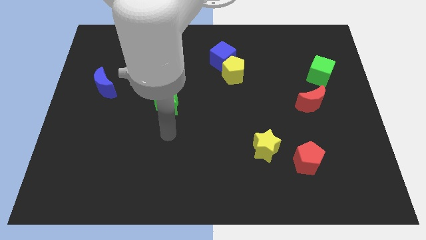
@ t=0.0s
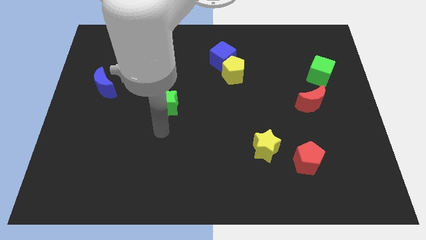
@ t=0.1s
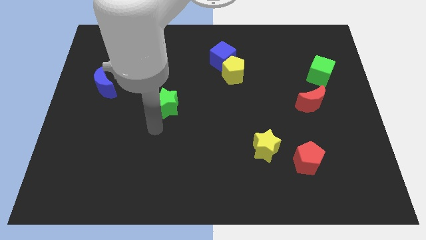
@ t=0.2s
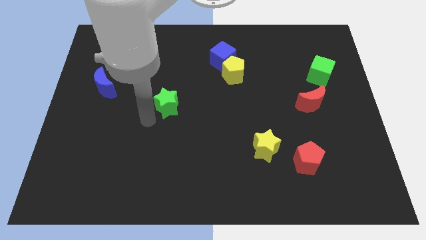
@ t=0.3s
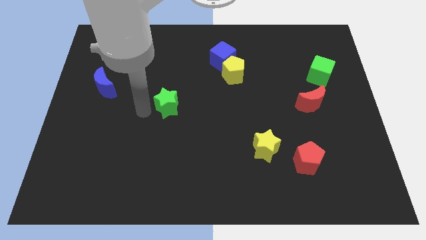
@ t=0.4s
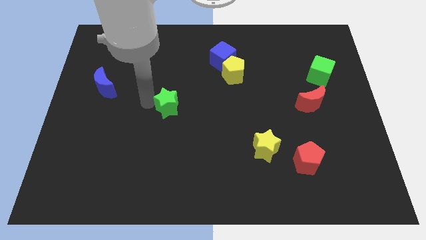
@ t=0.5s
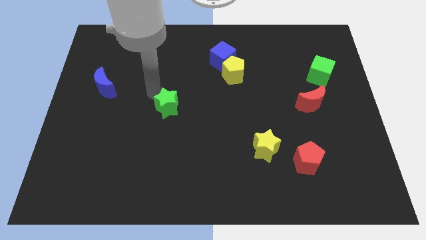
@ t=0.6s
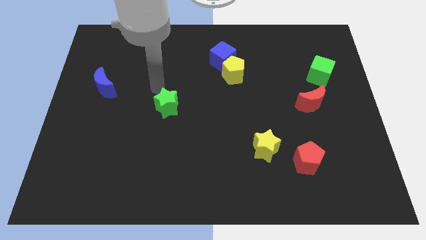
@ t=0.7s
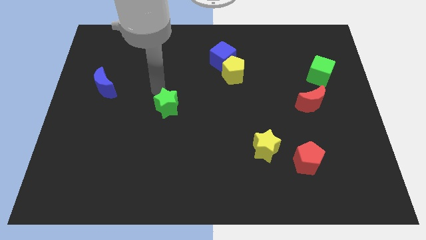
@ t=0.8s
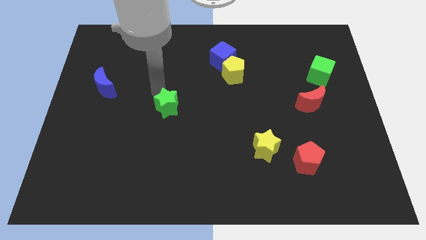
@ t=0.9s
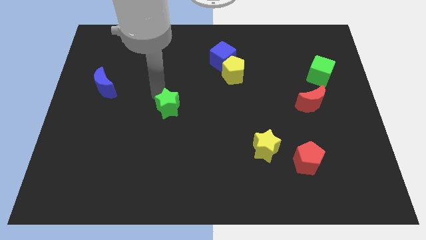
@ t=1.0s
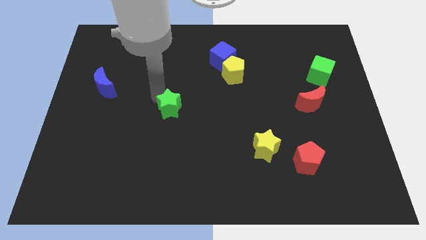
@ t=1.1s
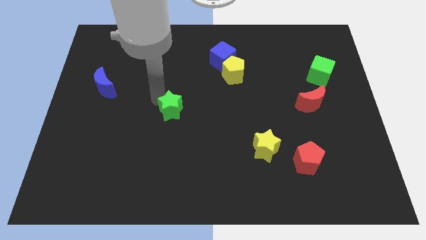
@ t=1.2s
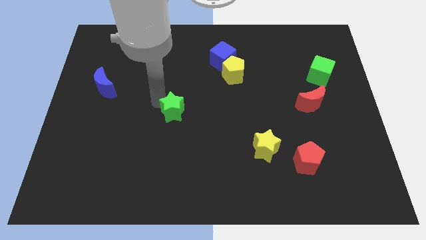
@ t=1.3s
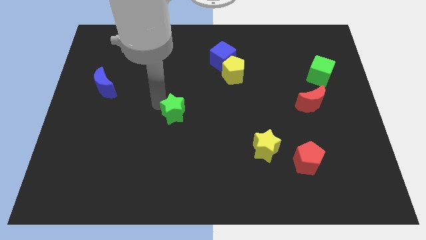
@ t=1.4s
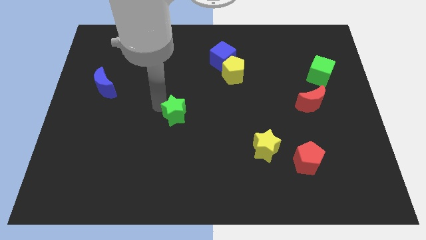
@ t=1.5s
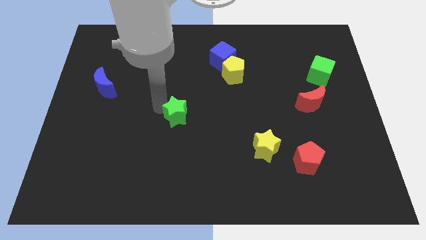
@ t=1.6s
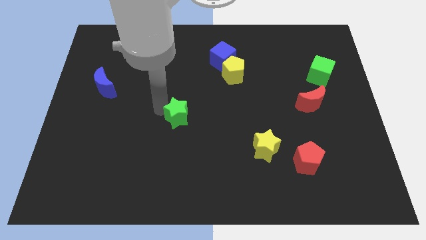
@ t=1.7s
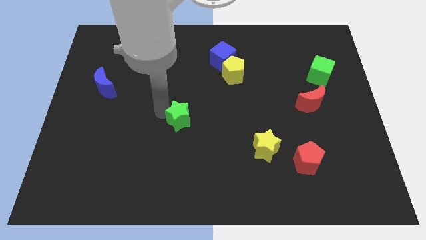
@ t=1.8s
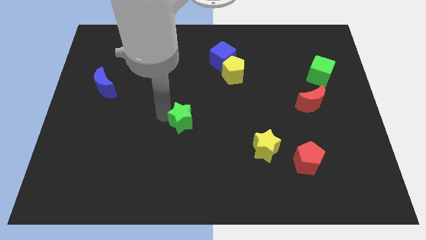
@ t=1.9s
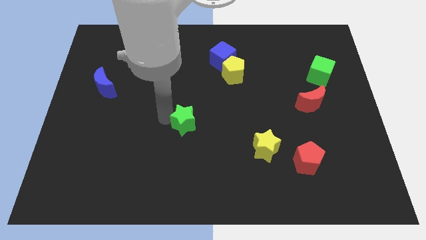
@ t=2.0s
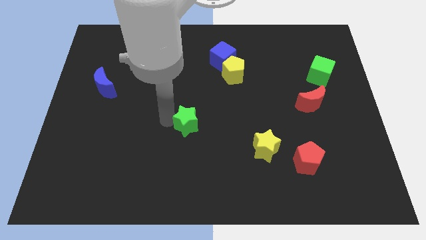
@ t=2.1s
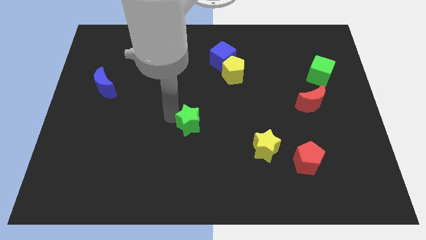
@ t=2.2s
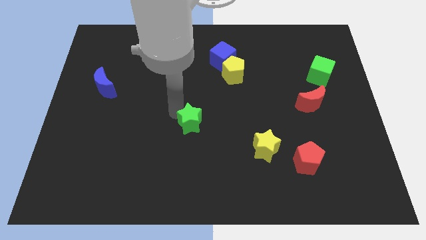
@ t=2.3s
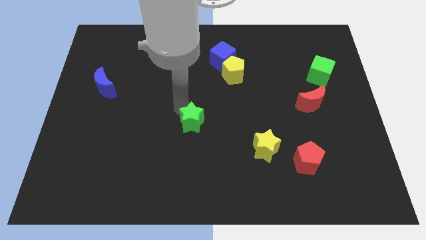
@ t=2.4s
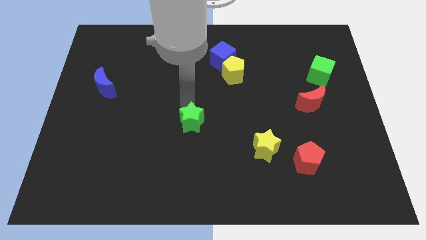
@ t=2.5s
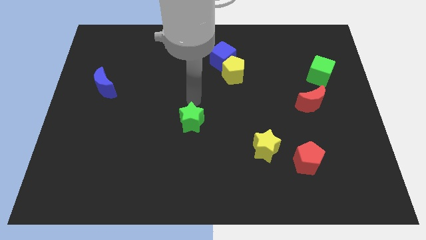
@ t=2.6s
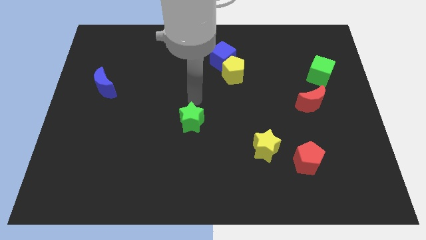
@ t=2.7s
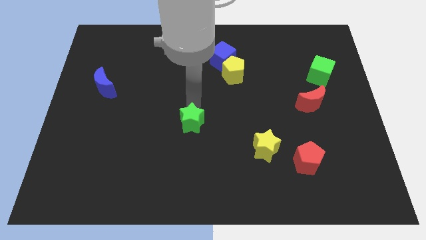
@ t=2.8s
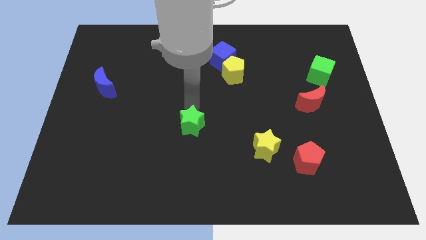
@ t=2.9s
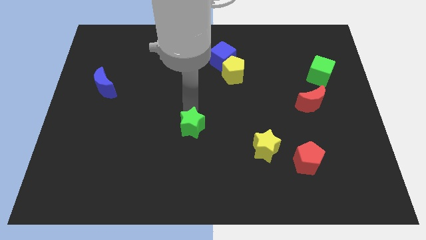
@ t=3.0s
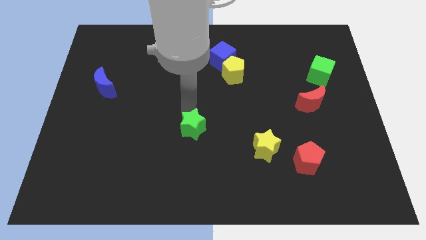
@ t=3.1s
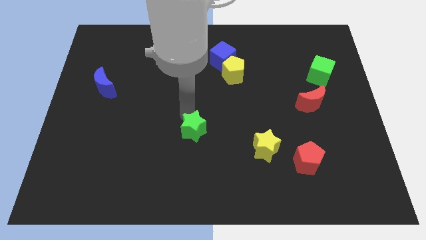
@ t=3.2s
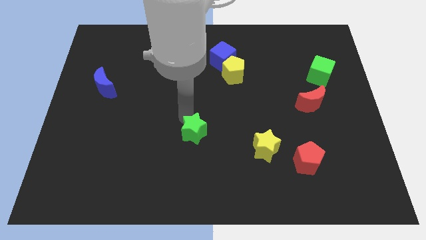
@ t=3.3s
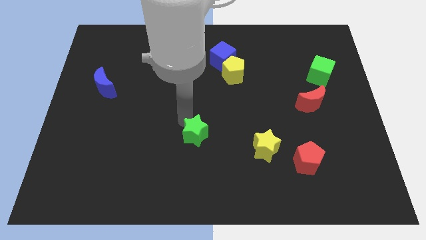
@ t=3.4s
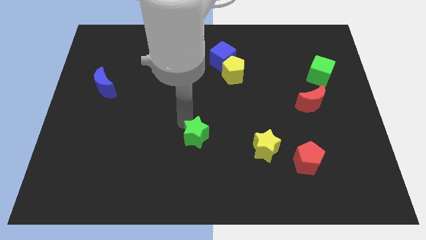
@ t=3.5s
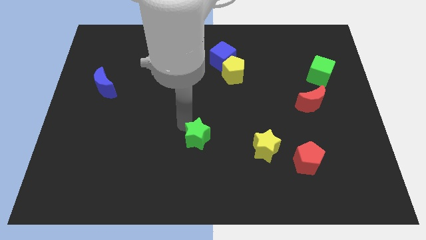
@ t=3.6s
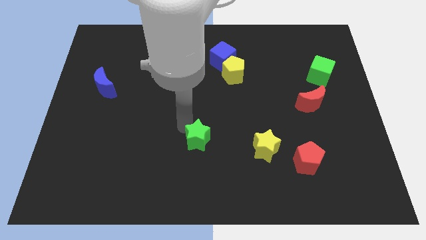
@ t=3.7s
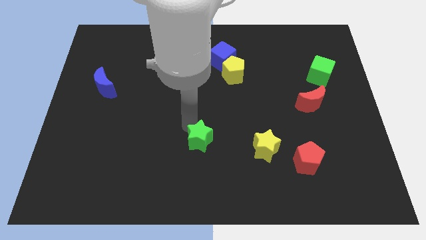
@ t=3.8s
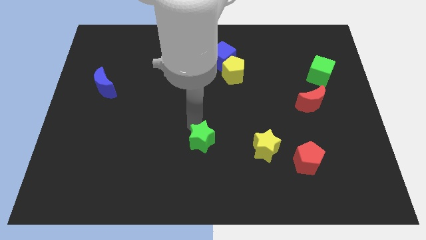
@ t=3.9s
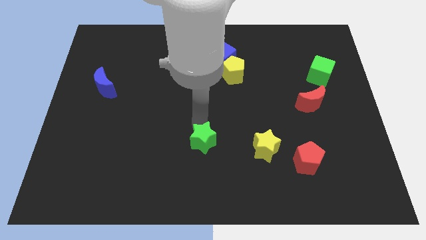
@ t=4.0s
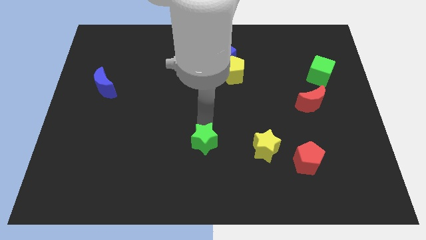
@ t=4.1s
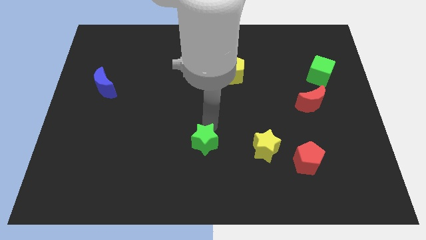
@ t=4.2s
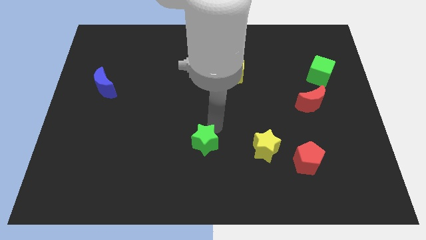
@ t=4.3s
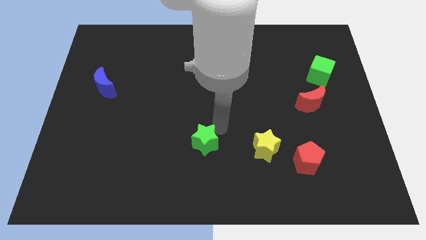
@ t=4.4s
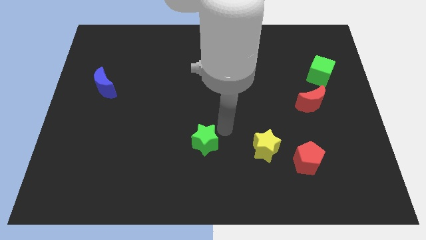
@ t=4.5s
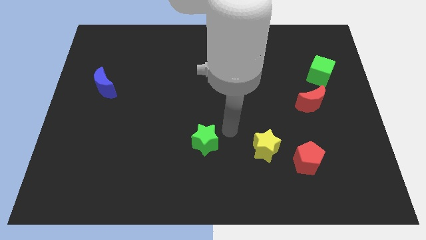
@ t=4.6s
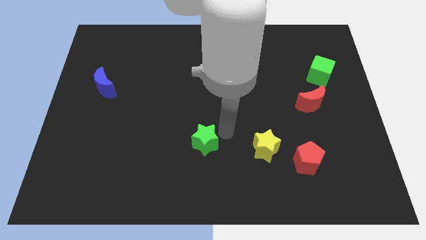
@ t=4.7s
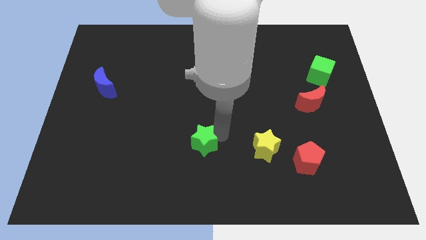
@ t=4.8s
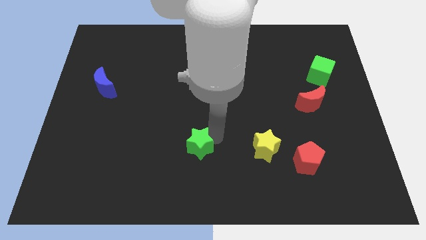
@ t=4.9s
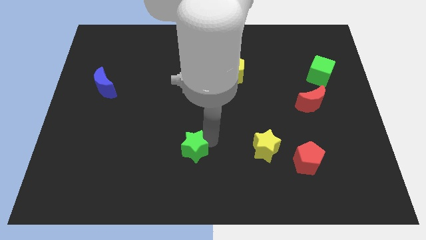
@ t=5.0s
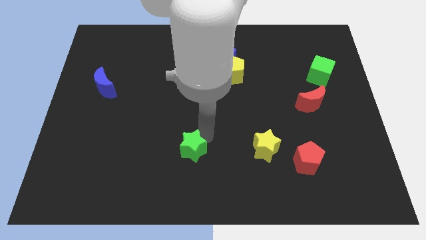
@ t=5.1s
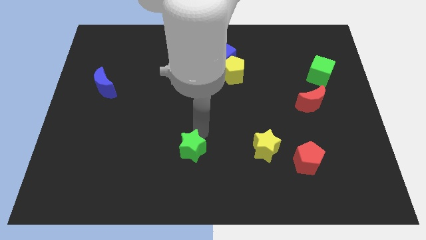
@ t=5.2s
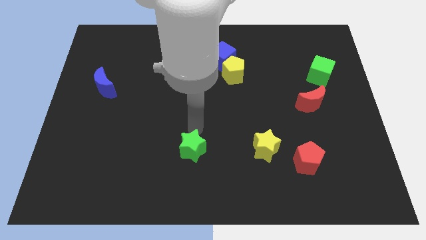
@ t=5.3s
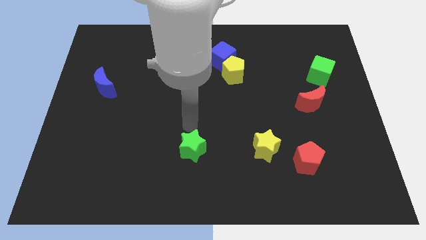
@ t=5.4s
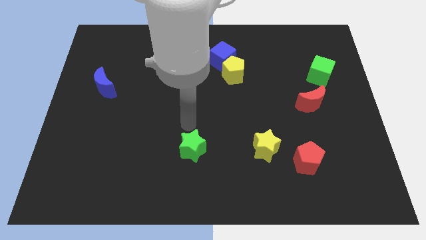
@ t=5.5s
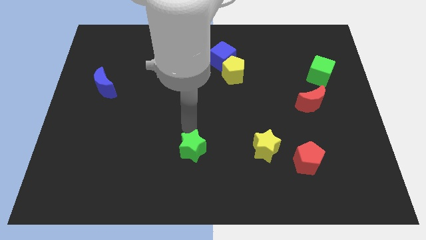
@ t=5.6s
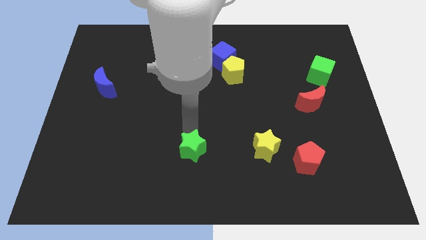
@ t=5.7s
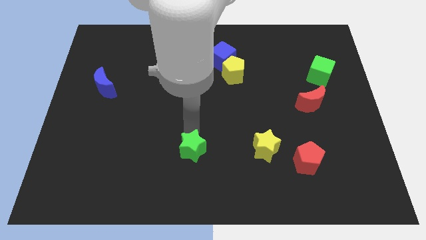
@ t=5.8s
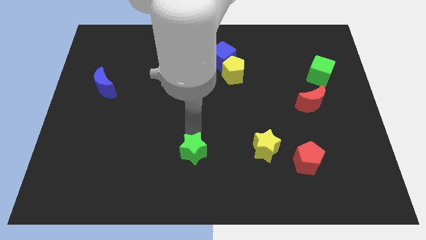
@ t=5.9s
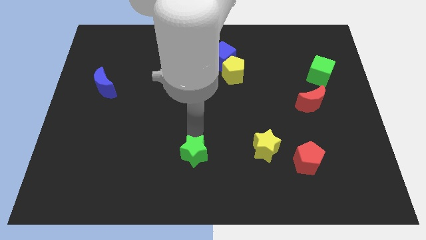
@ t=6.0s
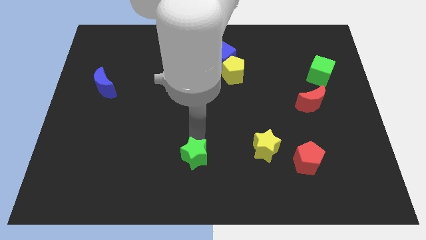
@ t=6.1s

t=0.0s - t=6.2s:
put the green star to the bottom side
